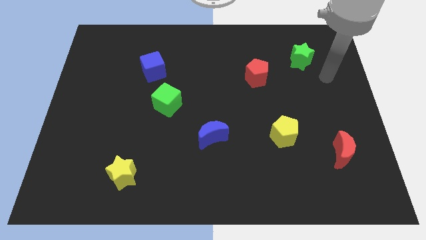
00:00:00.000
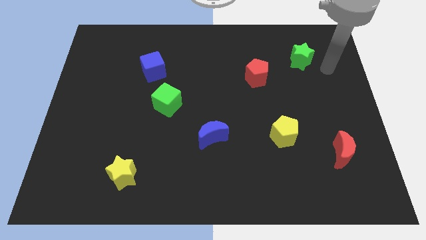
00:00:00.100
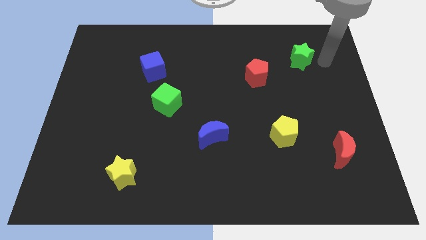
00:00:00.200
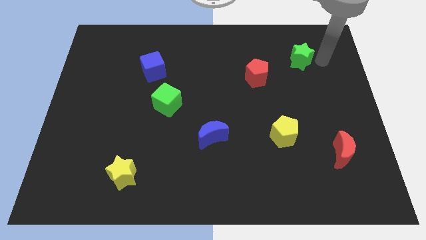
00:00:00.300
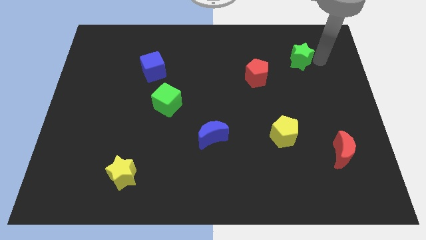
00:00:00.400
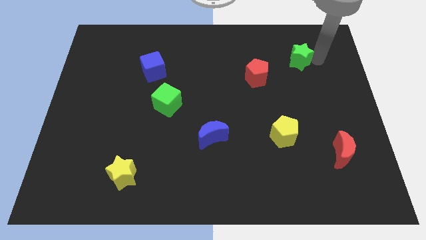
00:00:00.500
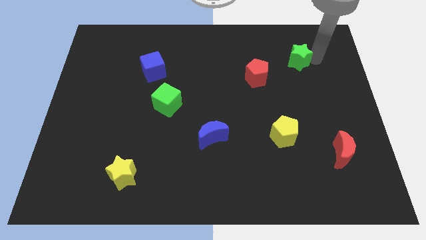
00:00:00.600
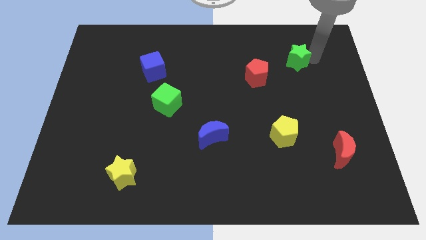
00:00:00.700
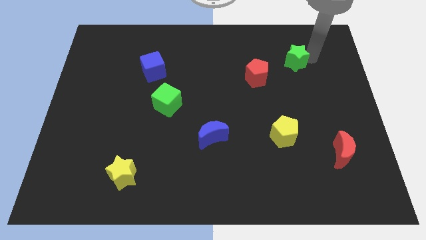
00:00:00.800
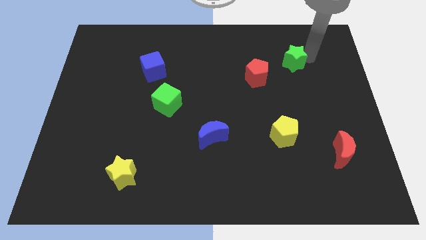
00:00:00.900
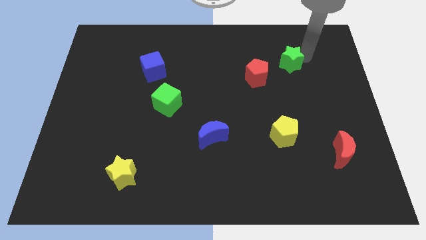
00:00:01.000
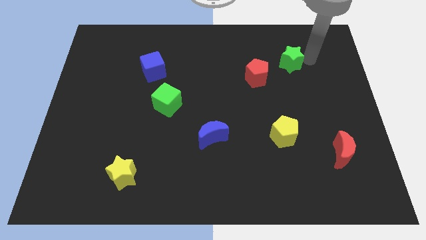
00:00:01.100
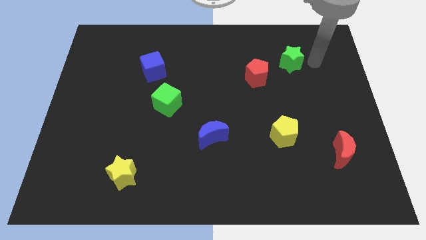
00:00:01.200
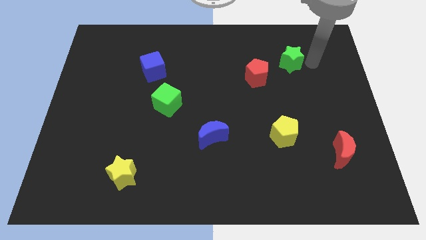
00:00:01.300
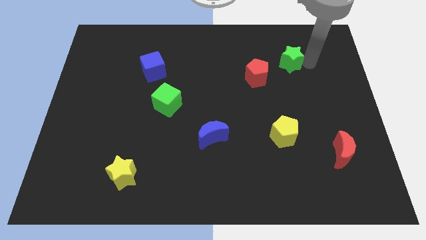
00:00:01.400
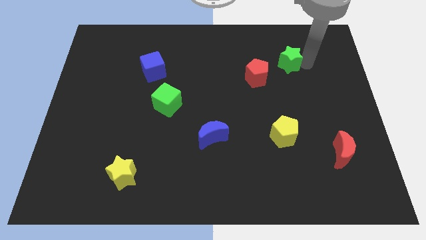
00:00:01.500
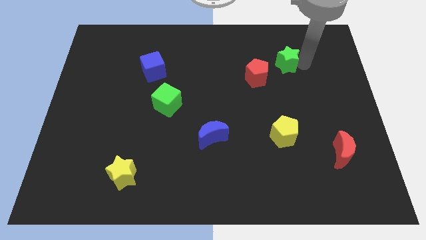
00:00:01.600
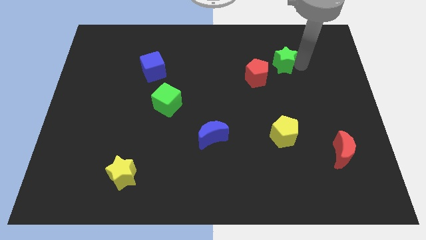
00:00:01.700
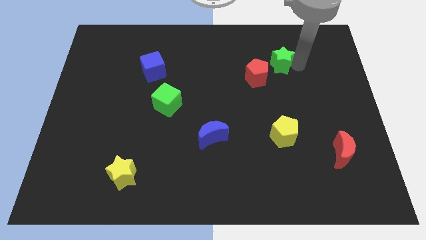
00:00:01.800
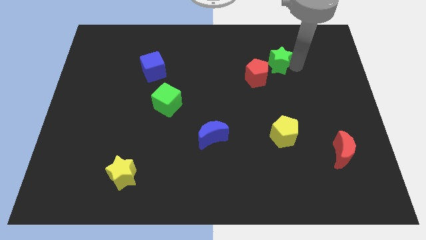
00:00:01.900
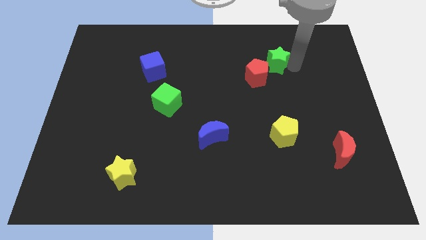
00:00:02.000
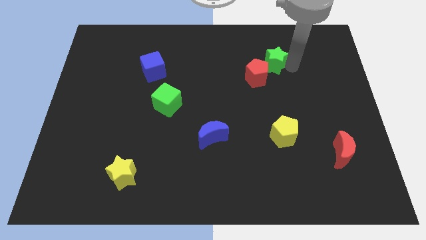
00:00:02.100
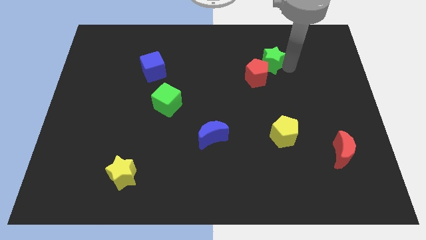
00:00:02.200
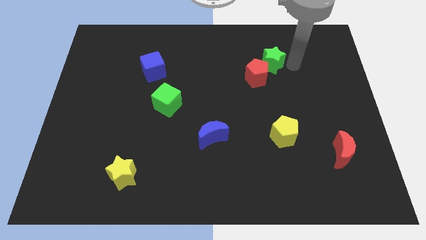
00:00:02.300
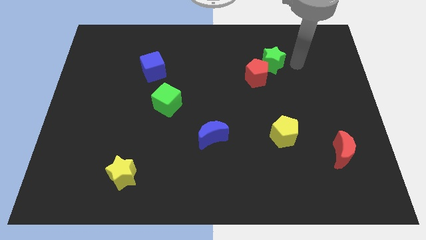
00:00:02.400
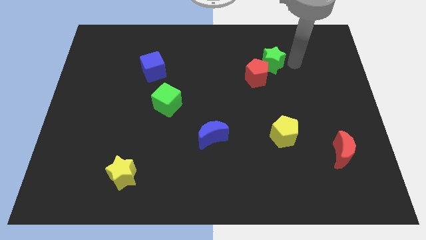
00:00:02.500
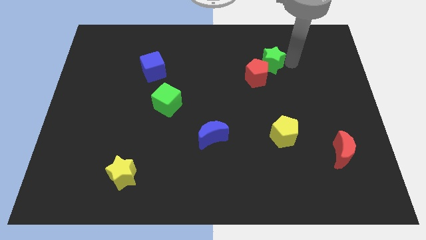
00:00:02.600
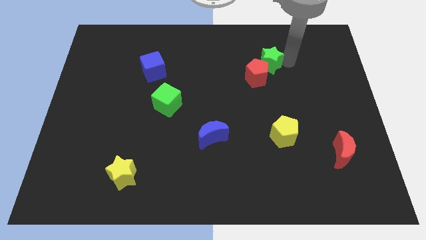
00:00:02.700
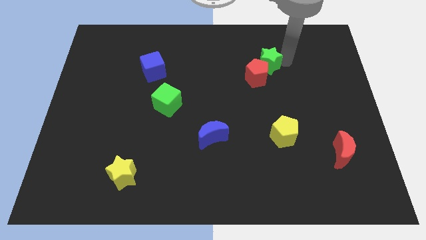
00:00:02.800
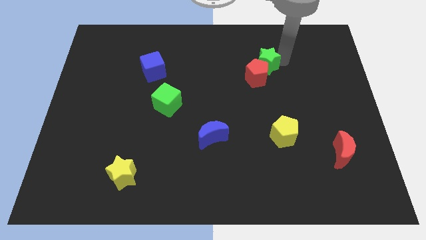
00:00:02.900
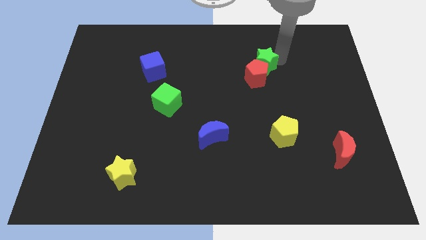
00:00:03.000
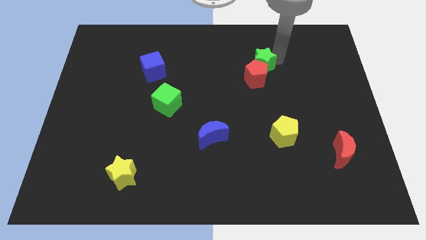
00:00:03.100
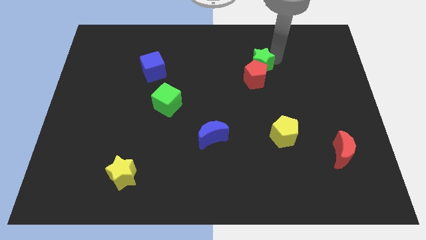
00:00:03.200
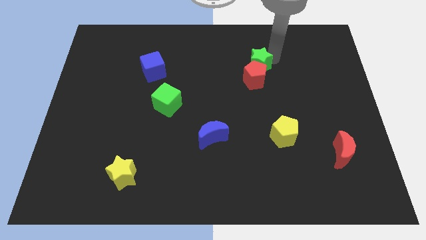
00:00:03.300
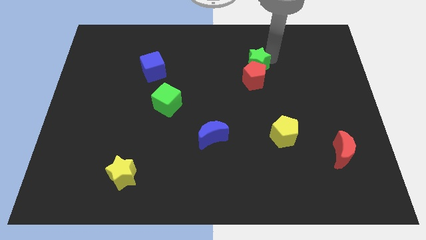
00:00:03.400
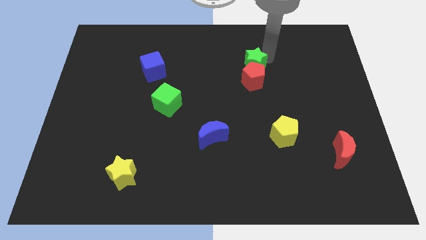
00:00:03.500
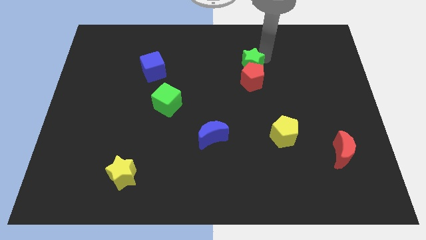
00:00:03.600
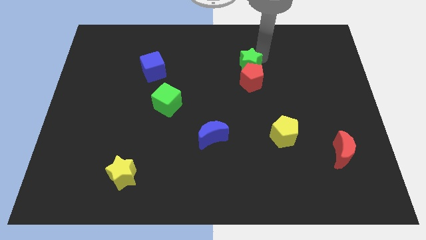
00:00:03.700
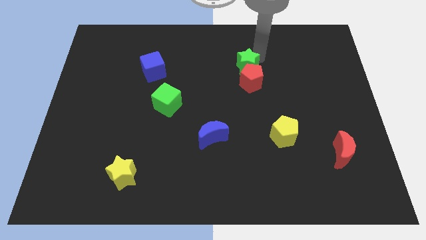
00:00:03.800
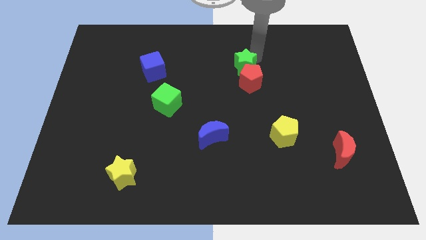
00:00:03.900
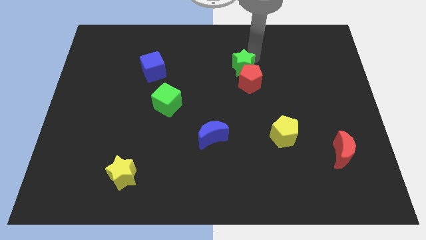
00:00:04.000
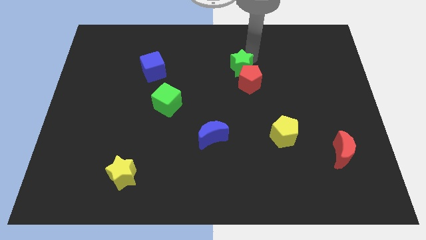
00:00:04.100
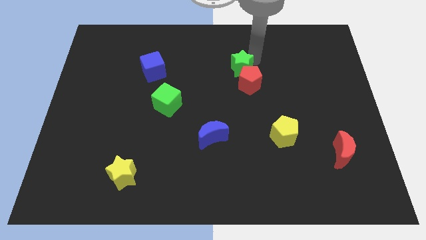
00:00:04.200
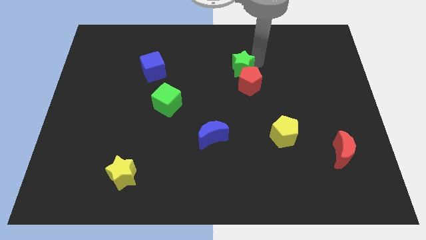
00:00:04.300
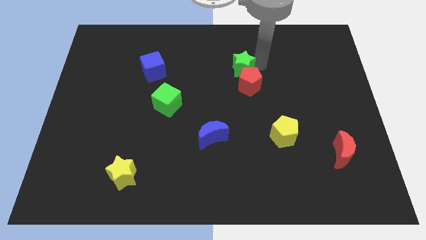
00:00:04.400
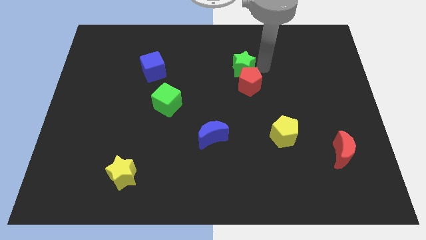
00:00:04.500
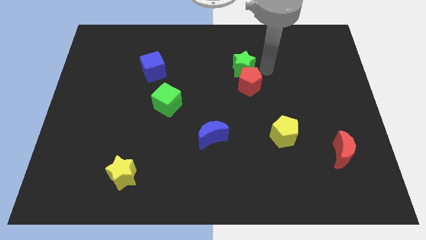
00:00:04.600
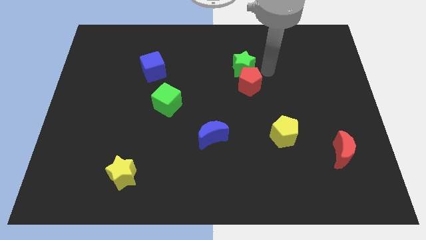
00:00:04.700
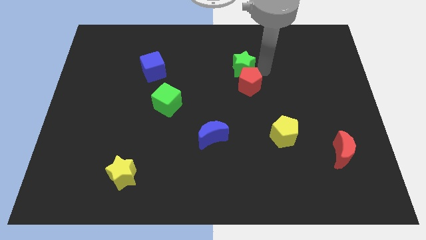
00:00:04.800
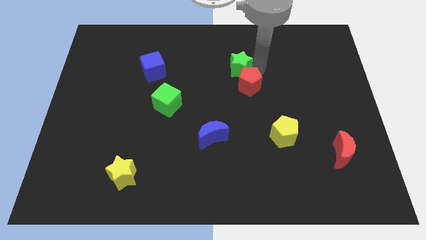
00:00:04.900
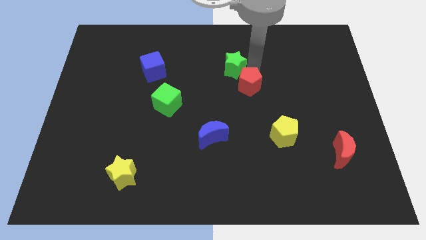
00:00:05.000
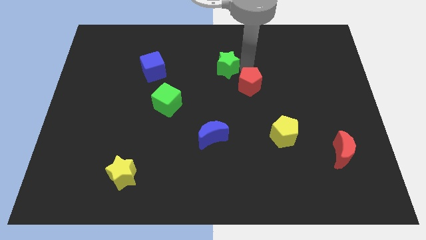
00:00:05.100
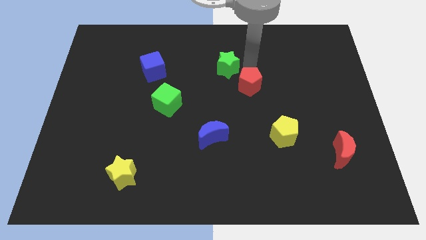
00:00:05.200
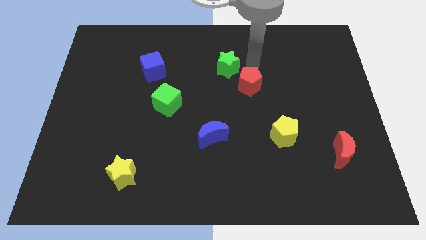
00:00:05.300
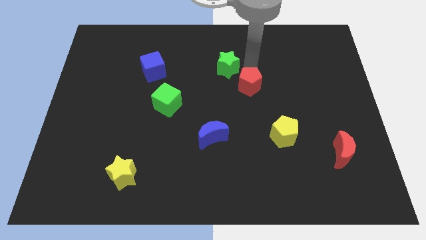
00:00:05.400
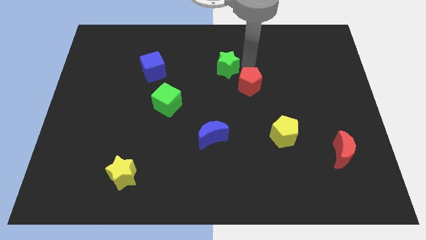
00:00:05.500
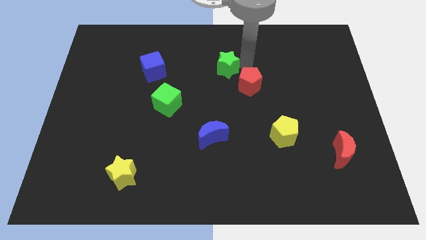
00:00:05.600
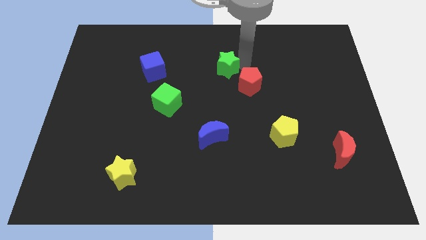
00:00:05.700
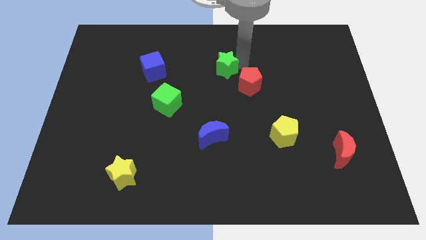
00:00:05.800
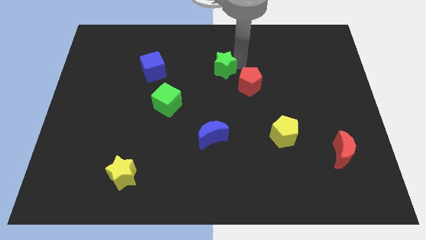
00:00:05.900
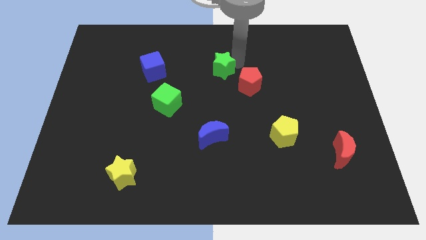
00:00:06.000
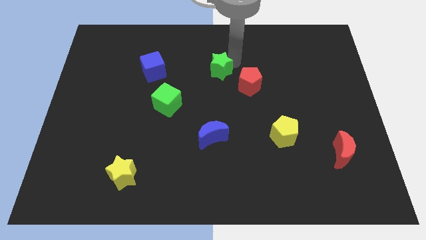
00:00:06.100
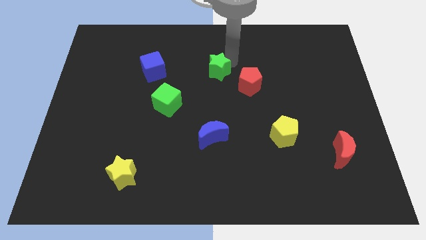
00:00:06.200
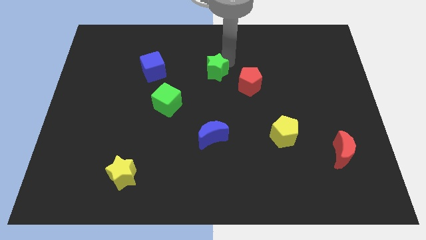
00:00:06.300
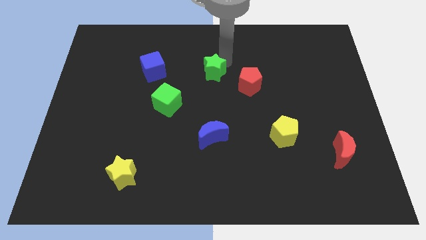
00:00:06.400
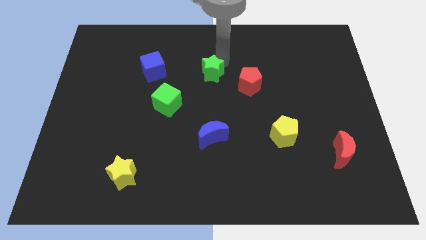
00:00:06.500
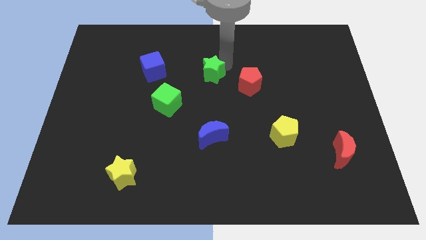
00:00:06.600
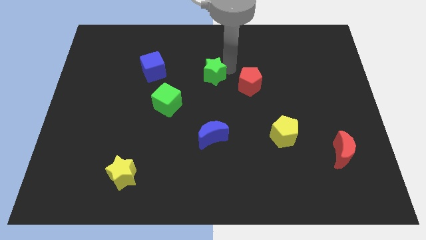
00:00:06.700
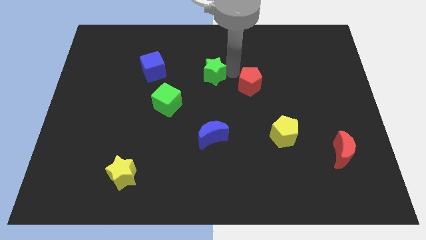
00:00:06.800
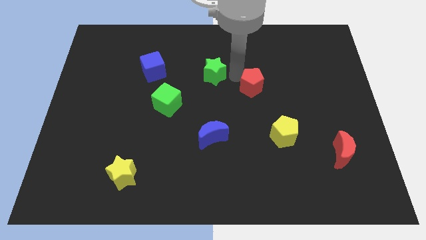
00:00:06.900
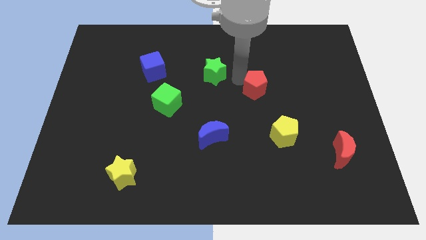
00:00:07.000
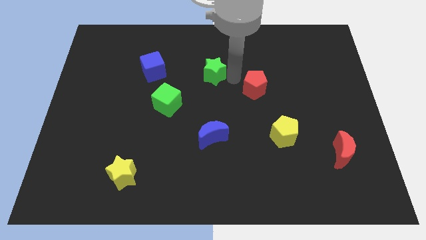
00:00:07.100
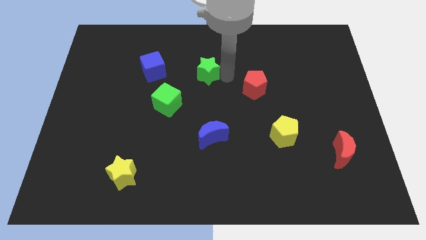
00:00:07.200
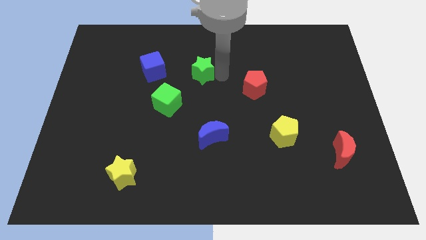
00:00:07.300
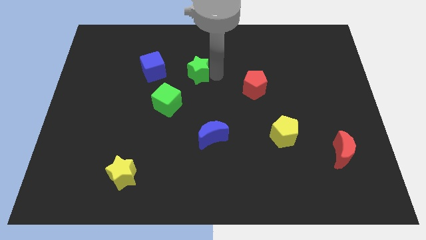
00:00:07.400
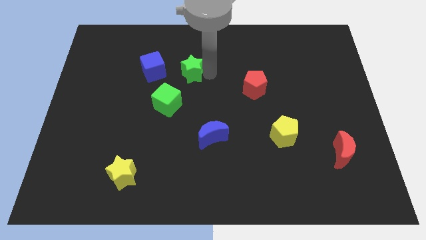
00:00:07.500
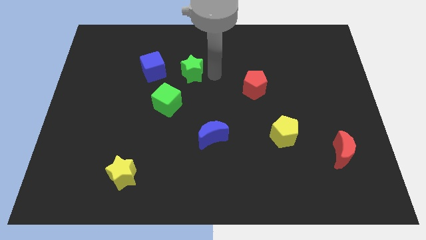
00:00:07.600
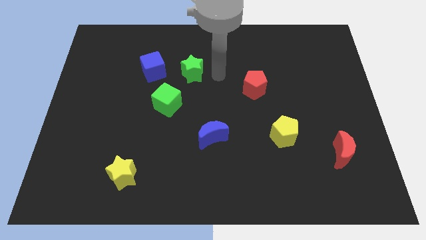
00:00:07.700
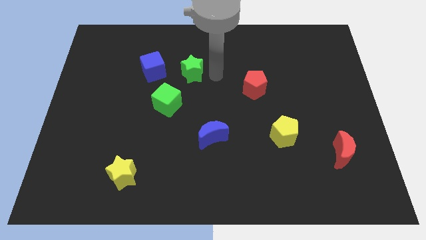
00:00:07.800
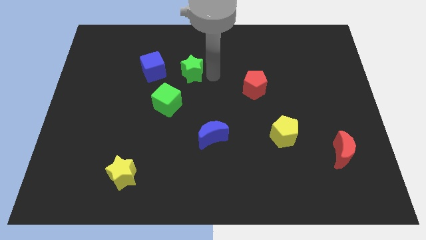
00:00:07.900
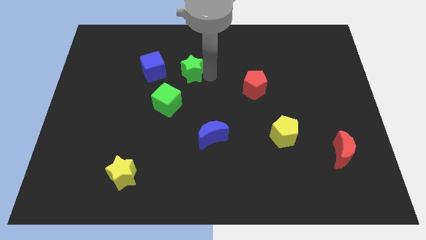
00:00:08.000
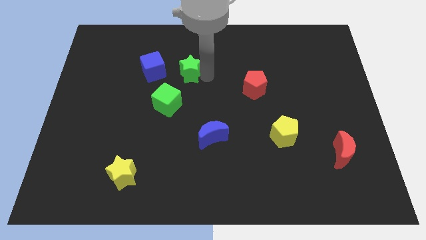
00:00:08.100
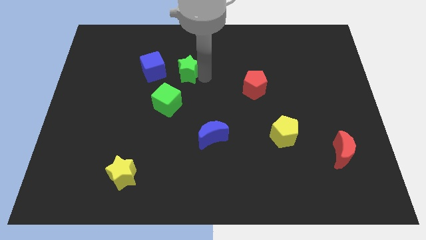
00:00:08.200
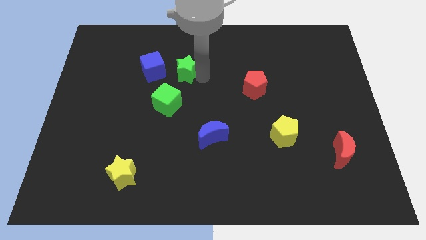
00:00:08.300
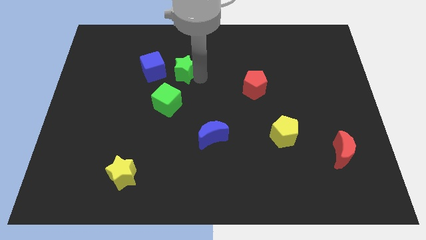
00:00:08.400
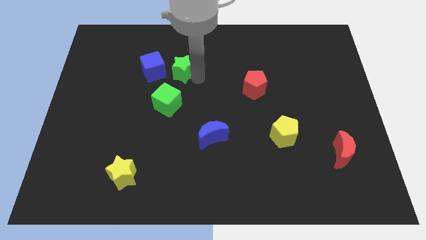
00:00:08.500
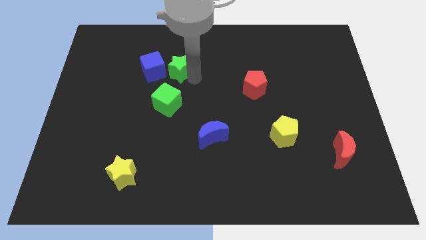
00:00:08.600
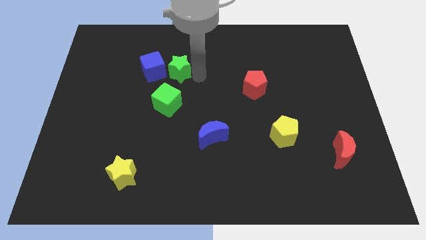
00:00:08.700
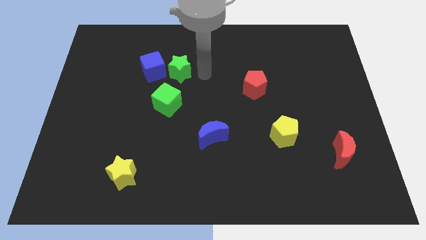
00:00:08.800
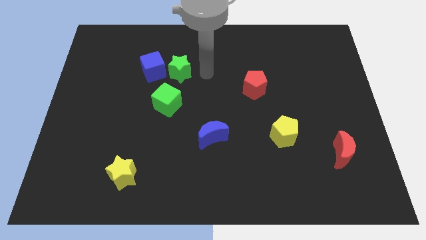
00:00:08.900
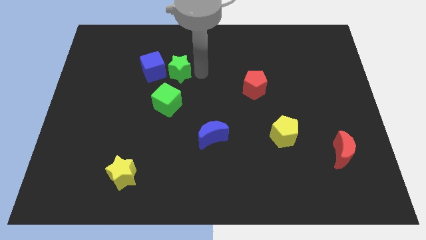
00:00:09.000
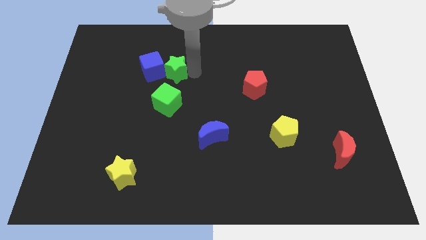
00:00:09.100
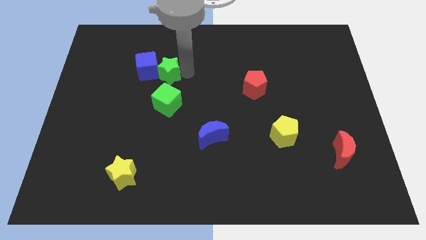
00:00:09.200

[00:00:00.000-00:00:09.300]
move the green star close to the blue cube
